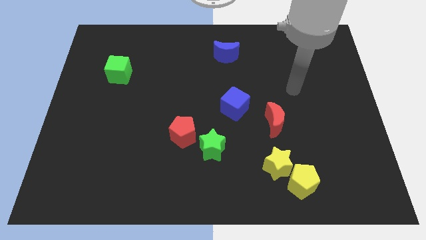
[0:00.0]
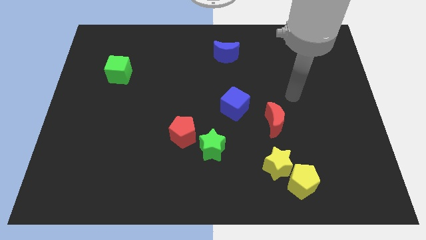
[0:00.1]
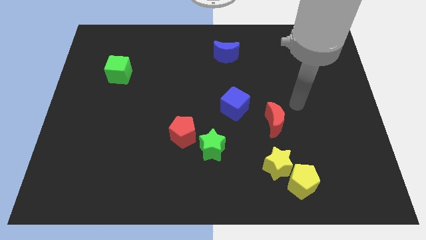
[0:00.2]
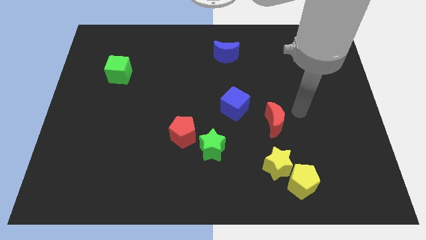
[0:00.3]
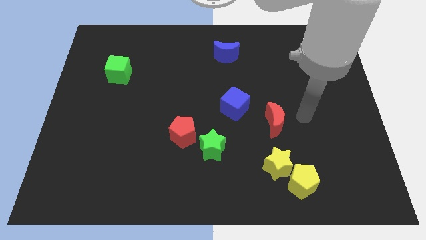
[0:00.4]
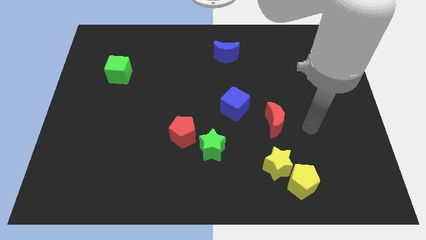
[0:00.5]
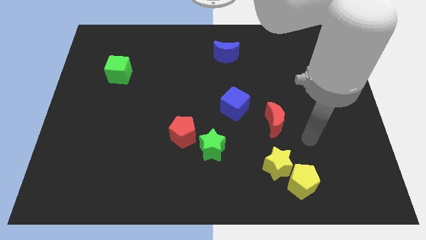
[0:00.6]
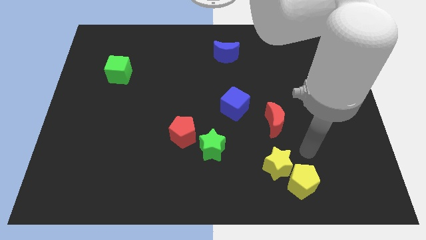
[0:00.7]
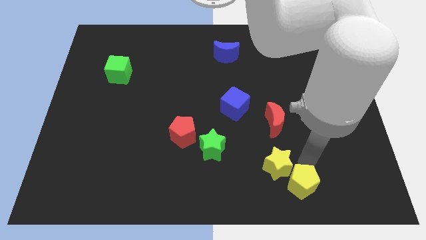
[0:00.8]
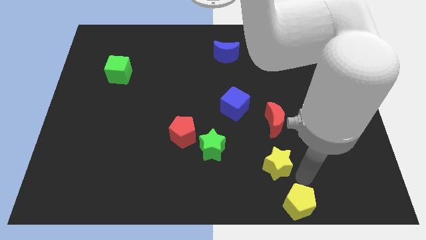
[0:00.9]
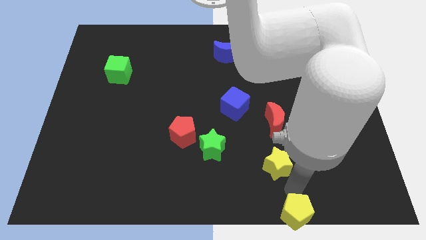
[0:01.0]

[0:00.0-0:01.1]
separate the yellow star from the yellow pentagon

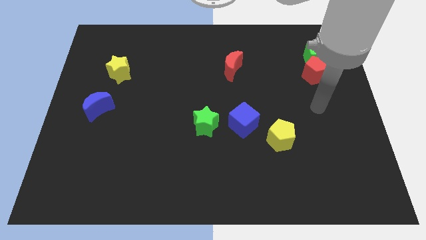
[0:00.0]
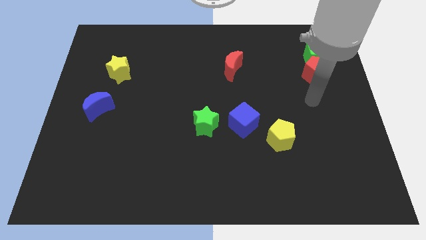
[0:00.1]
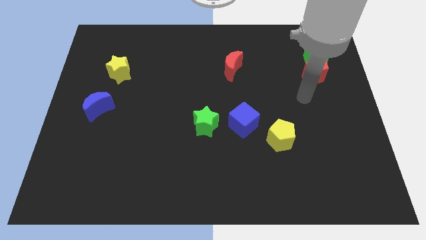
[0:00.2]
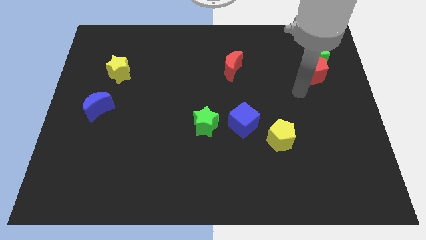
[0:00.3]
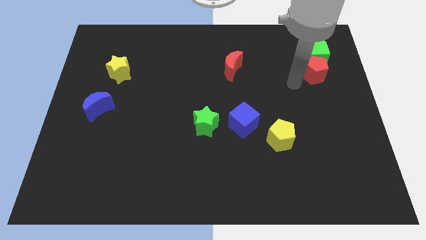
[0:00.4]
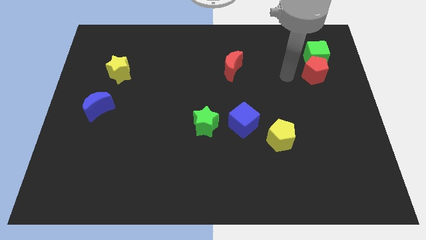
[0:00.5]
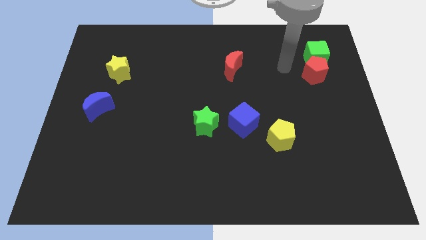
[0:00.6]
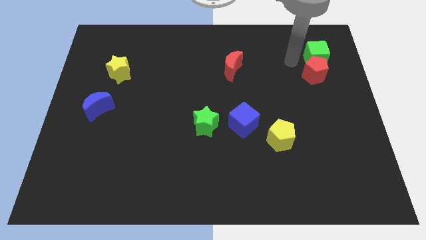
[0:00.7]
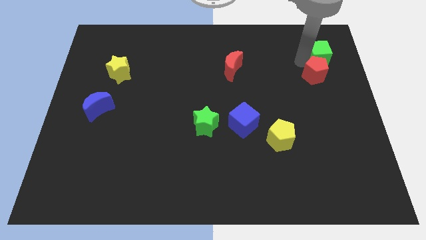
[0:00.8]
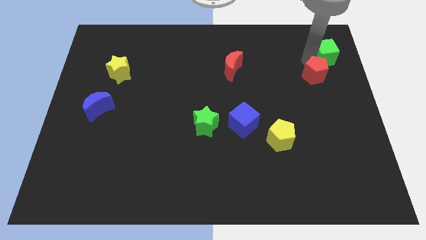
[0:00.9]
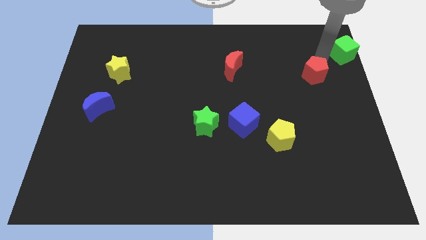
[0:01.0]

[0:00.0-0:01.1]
separate the red pentagon from the green cube

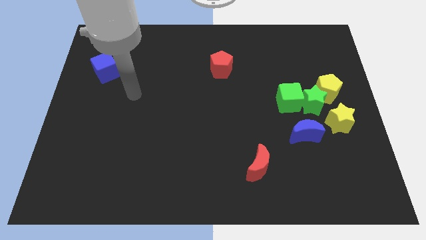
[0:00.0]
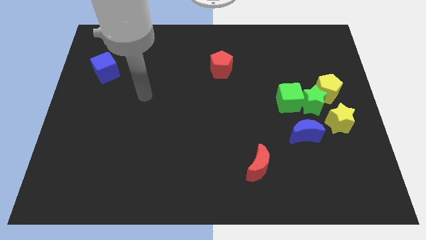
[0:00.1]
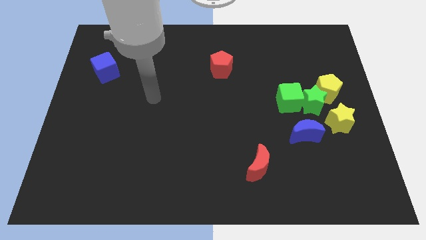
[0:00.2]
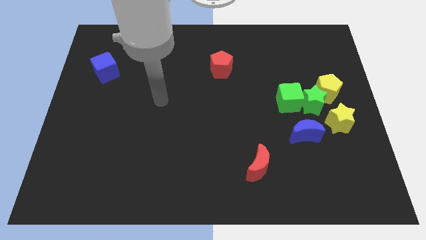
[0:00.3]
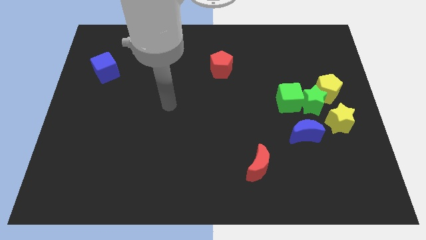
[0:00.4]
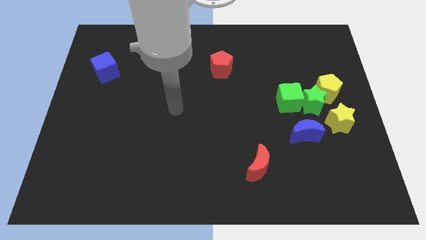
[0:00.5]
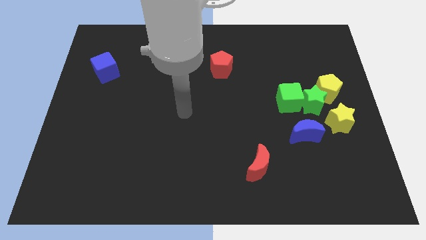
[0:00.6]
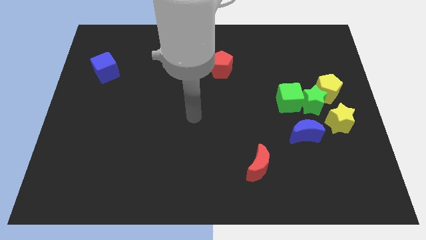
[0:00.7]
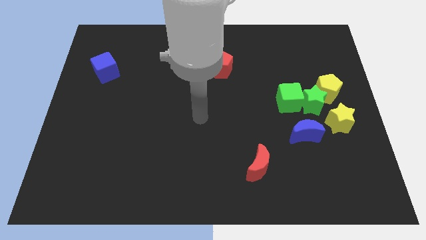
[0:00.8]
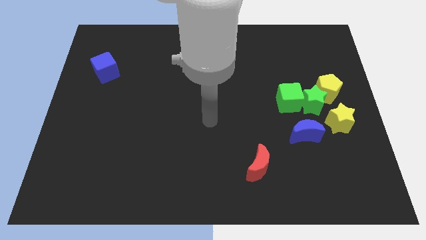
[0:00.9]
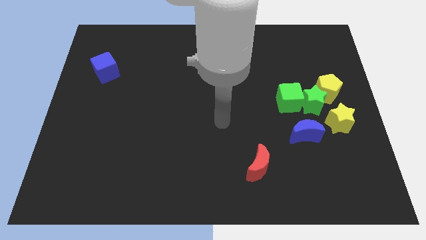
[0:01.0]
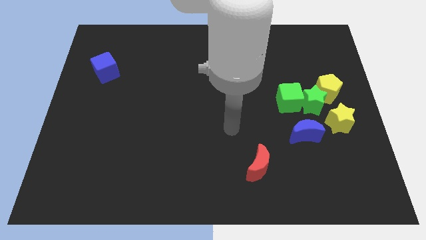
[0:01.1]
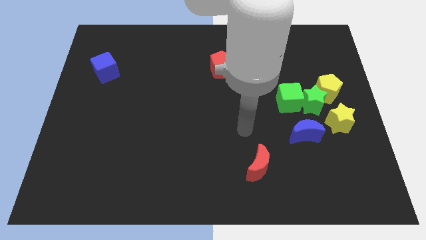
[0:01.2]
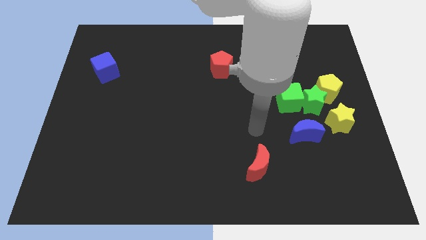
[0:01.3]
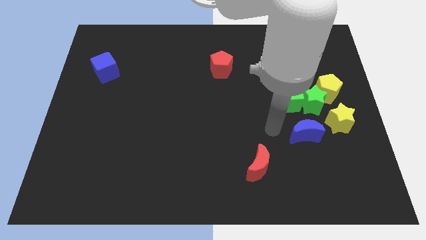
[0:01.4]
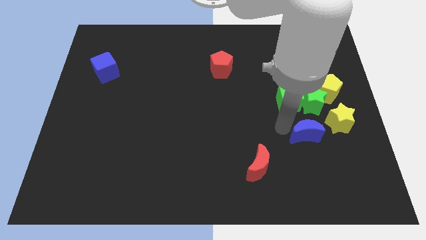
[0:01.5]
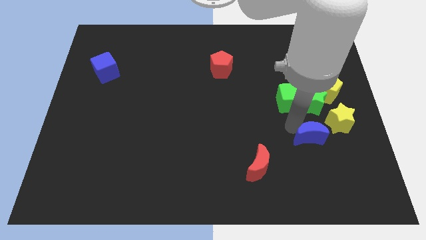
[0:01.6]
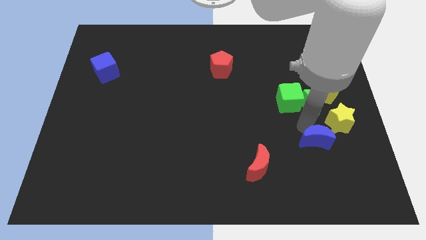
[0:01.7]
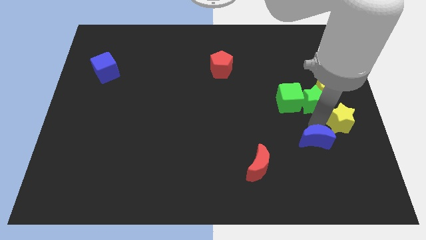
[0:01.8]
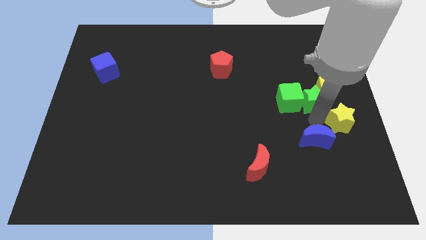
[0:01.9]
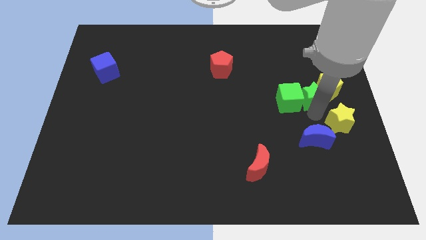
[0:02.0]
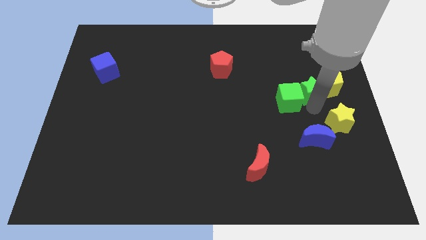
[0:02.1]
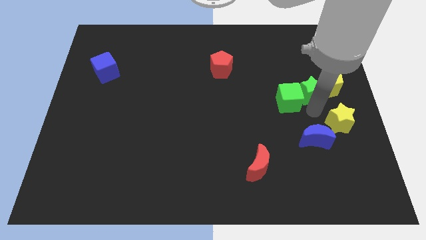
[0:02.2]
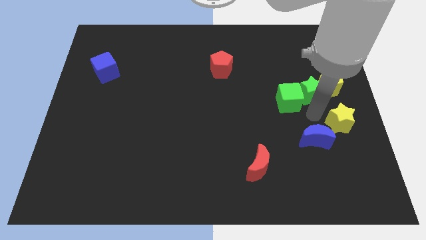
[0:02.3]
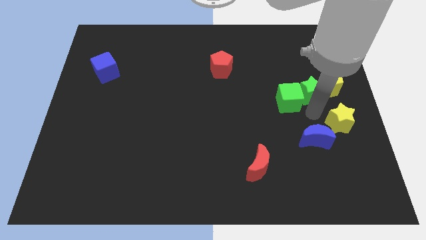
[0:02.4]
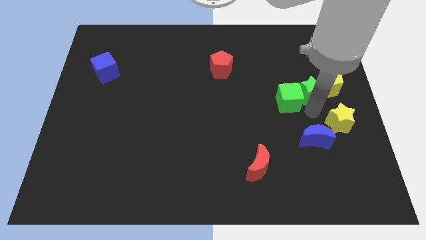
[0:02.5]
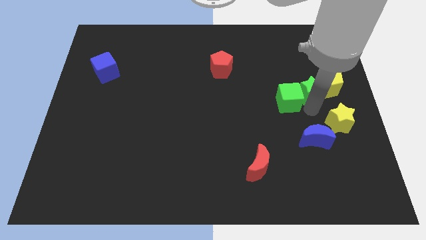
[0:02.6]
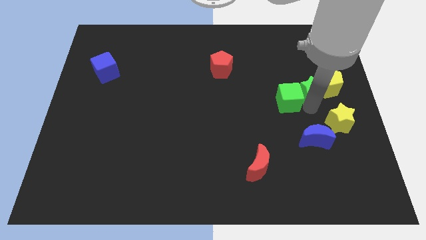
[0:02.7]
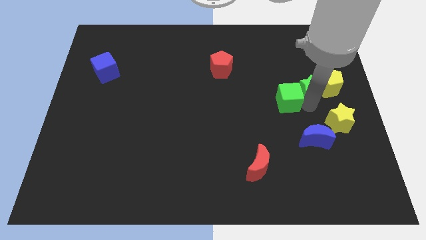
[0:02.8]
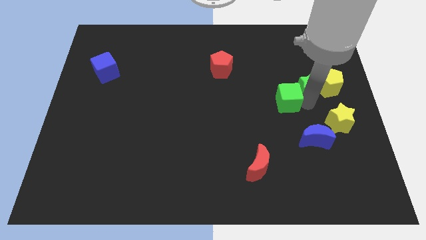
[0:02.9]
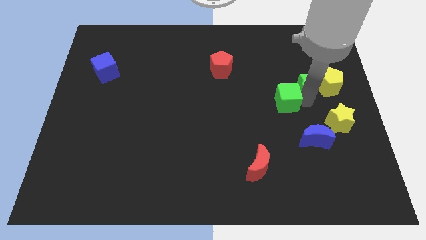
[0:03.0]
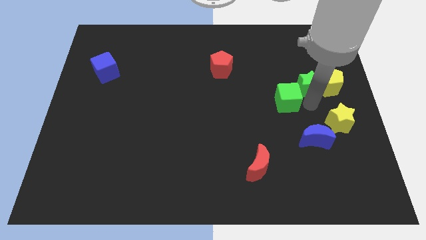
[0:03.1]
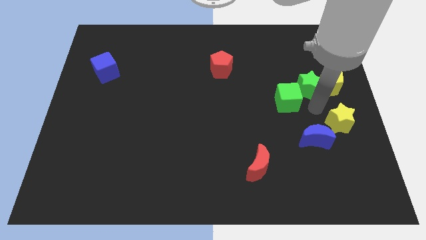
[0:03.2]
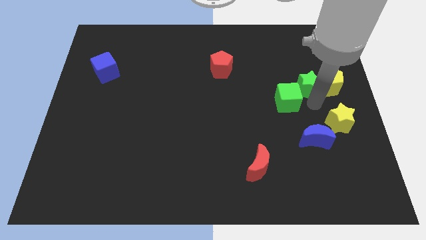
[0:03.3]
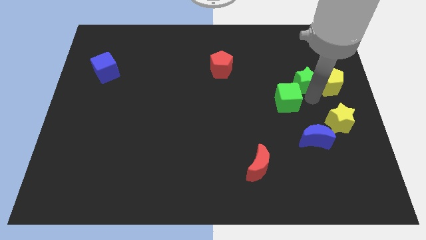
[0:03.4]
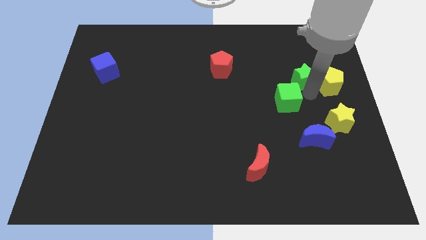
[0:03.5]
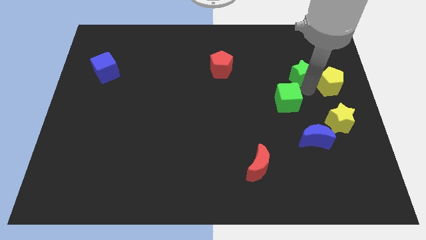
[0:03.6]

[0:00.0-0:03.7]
pull the green star apart from the group

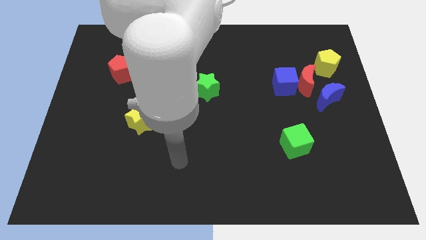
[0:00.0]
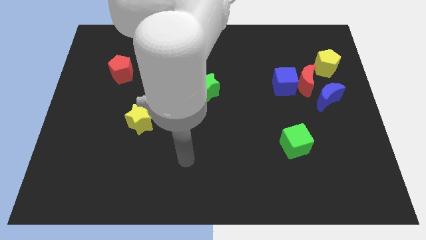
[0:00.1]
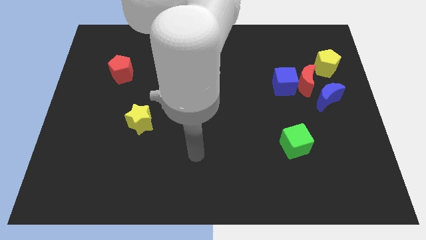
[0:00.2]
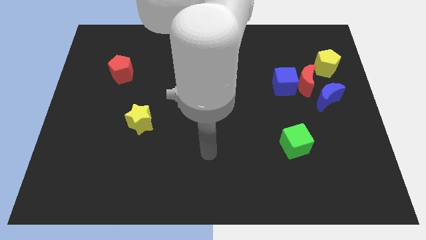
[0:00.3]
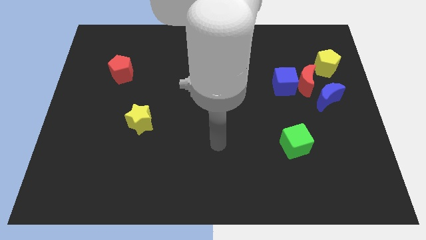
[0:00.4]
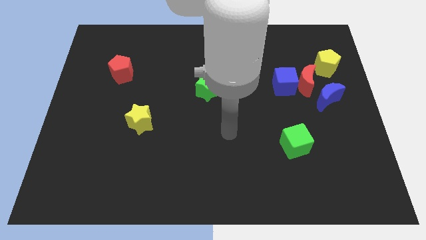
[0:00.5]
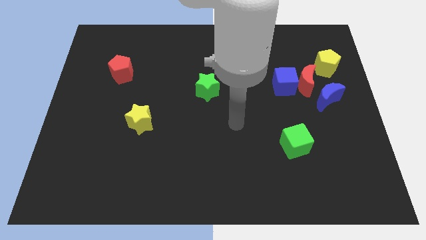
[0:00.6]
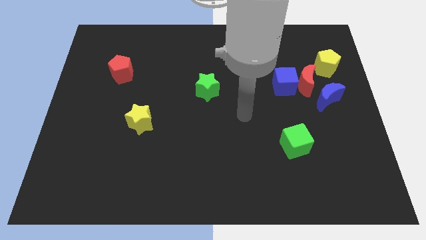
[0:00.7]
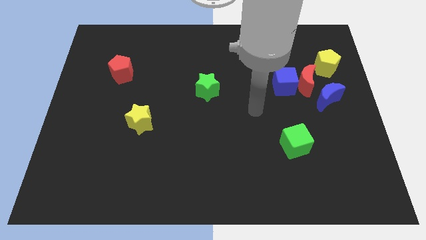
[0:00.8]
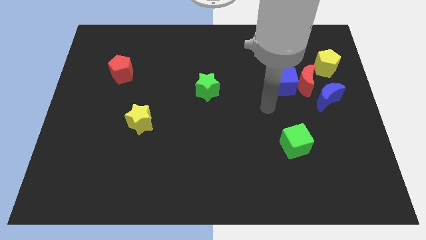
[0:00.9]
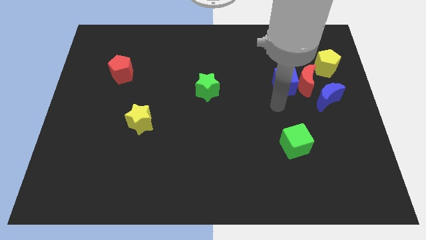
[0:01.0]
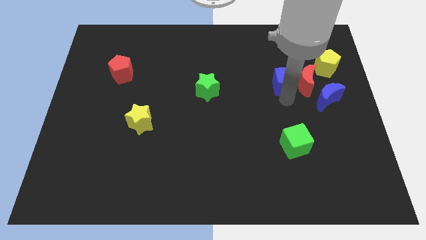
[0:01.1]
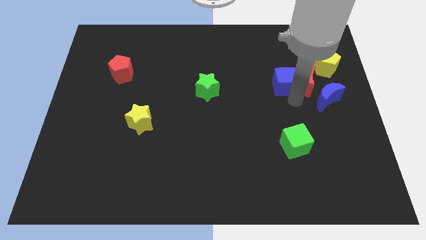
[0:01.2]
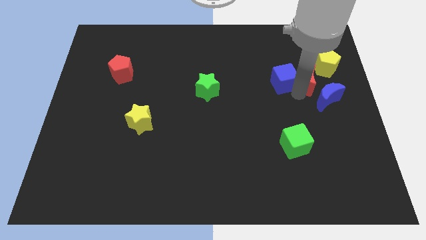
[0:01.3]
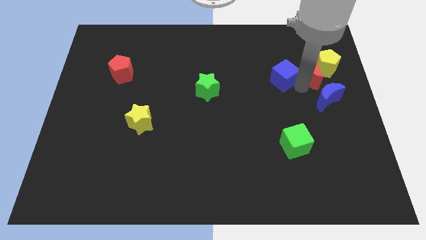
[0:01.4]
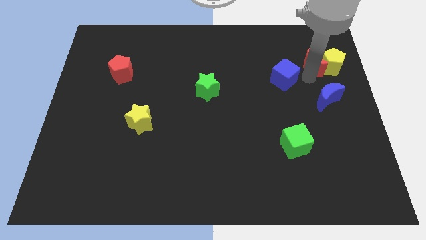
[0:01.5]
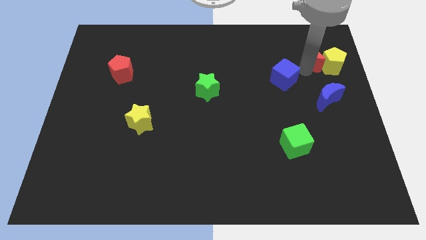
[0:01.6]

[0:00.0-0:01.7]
pull the blue cube apart from the red moon

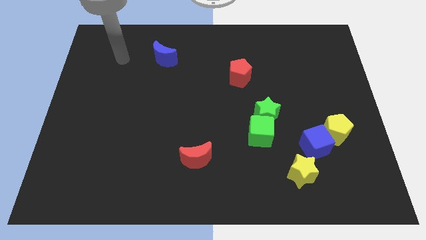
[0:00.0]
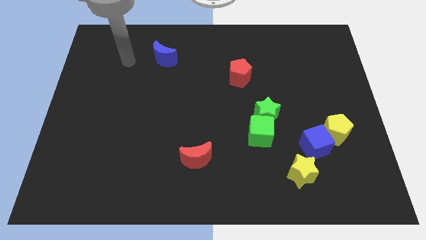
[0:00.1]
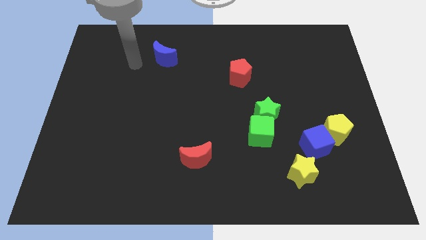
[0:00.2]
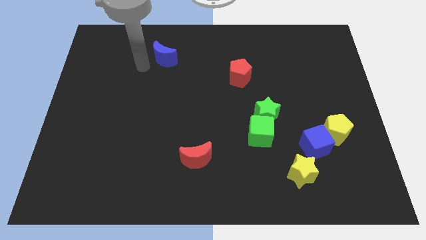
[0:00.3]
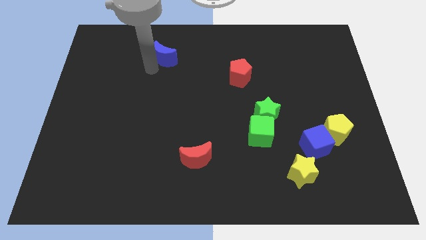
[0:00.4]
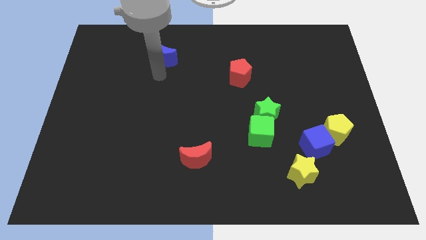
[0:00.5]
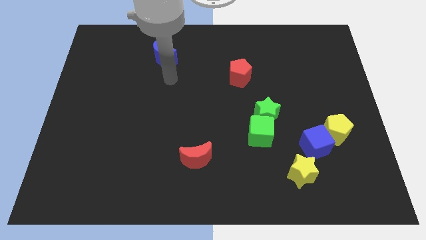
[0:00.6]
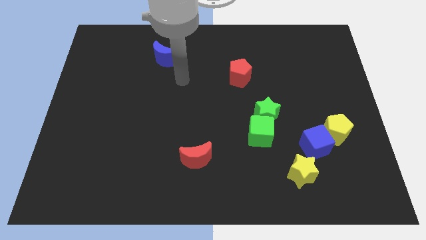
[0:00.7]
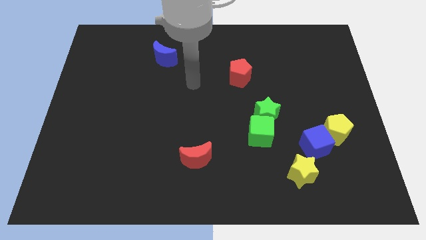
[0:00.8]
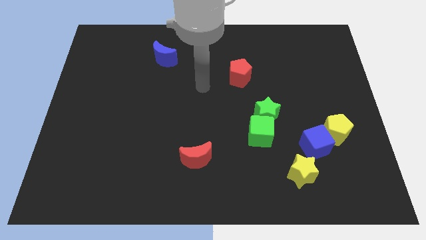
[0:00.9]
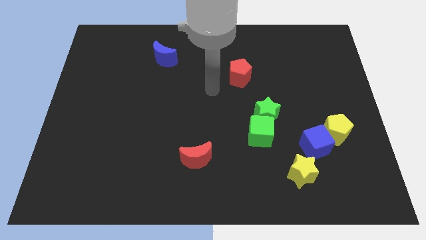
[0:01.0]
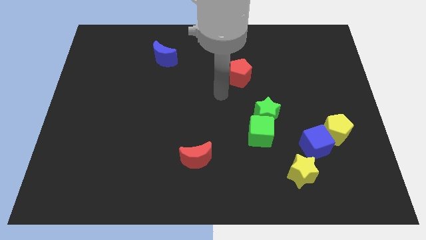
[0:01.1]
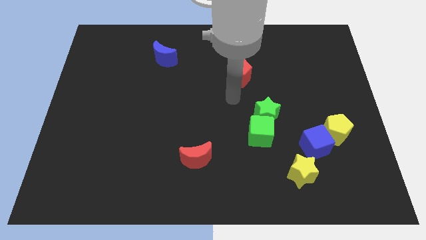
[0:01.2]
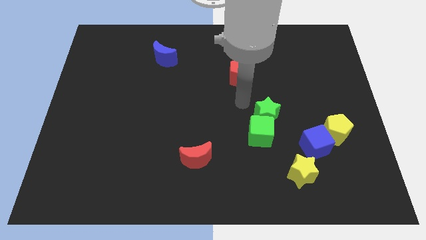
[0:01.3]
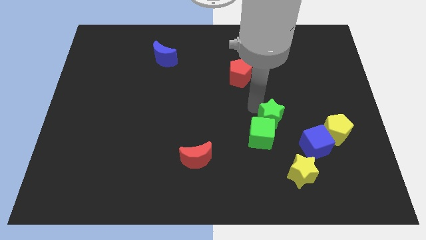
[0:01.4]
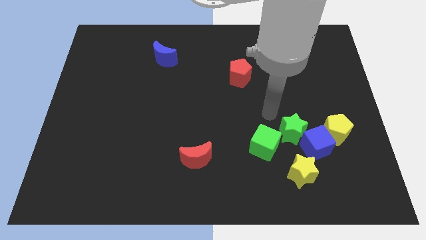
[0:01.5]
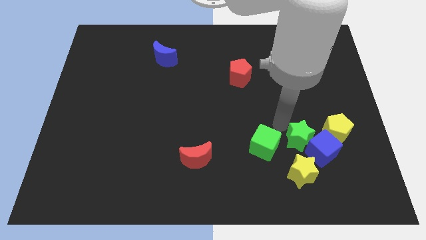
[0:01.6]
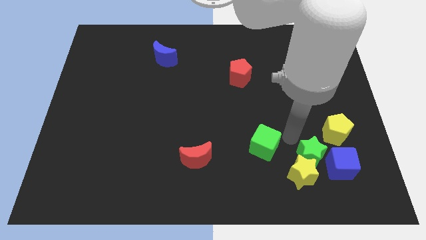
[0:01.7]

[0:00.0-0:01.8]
pull the green cube apart from the green star
